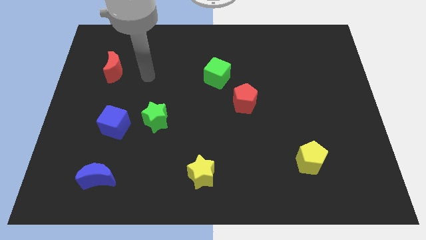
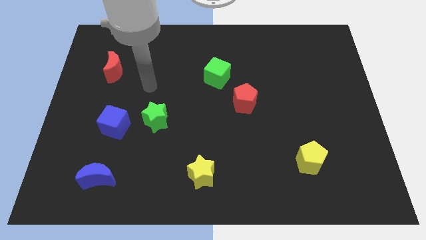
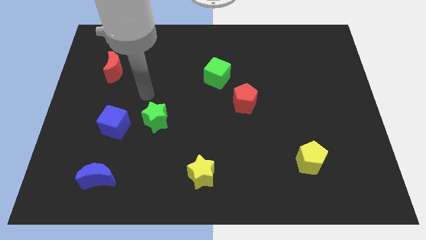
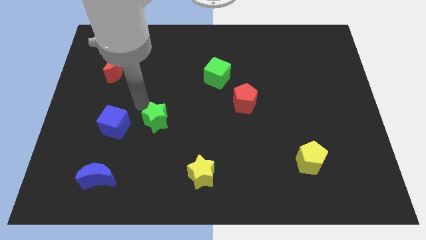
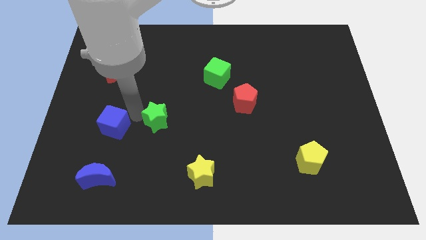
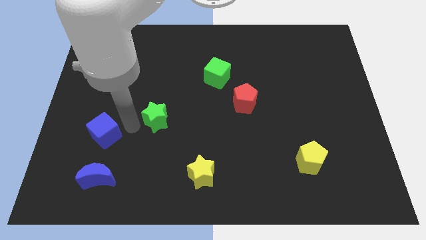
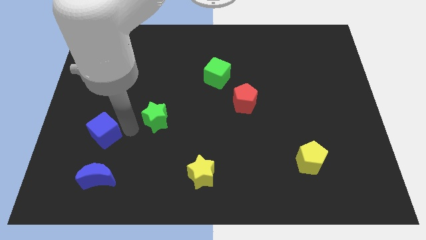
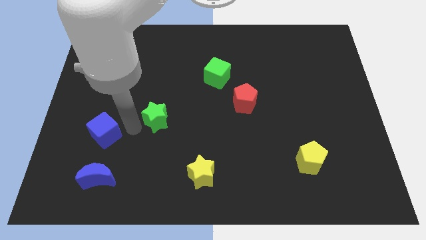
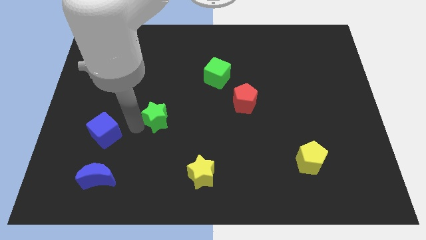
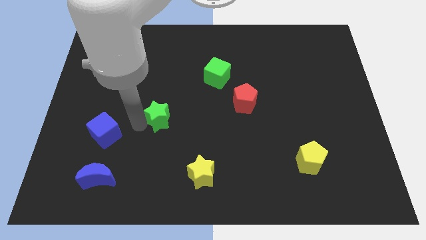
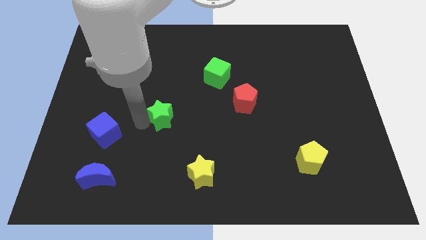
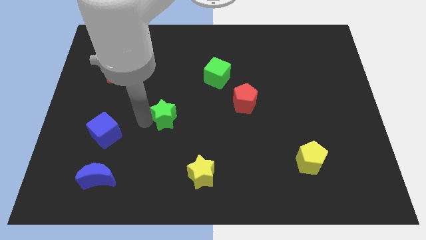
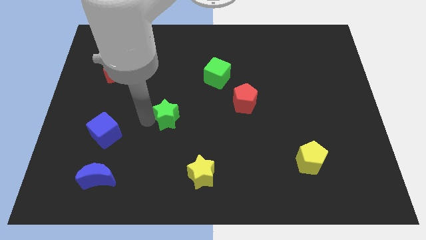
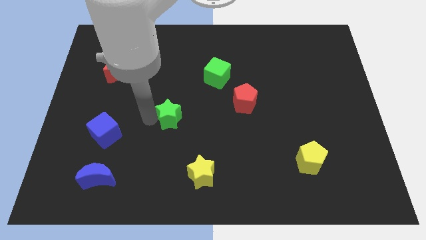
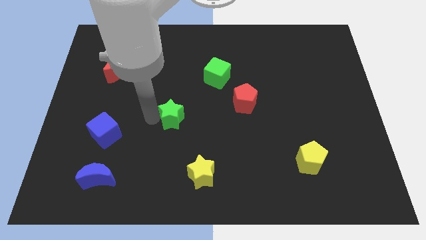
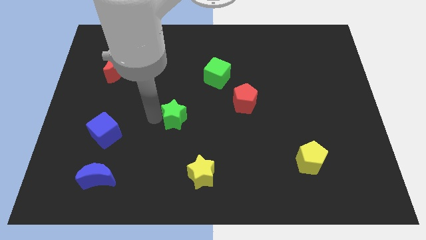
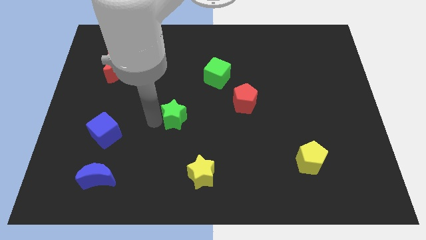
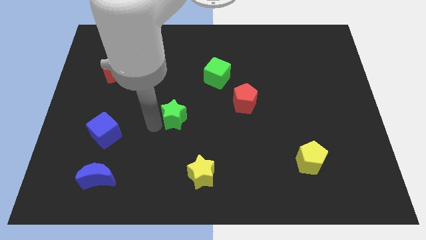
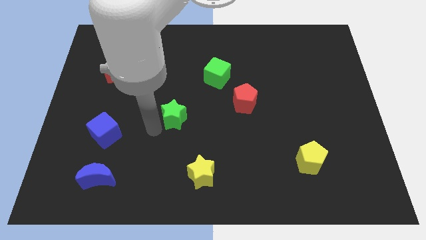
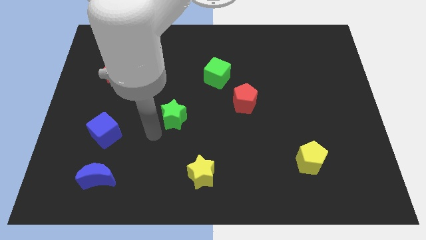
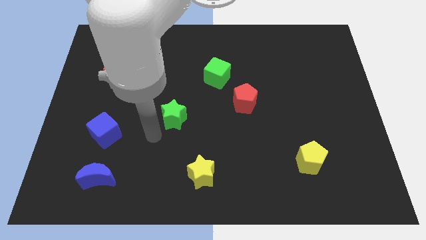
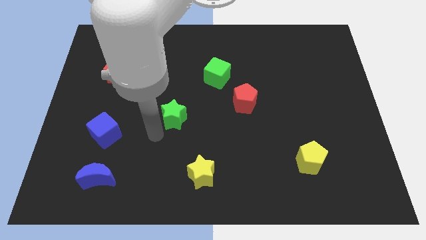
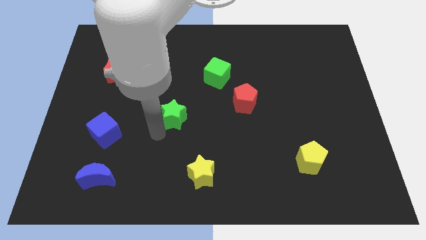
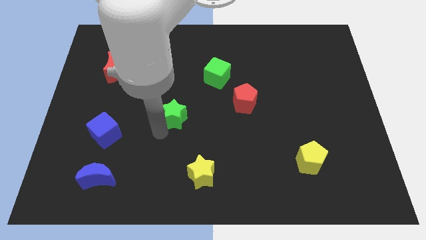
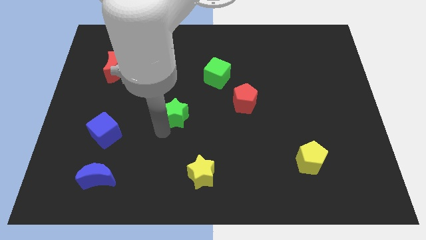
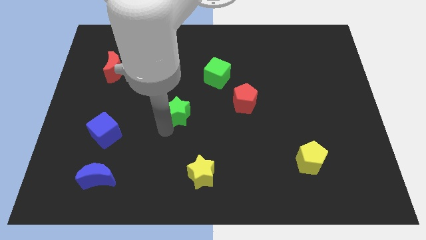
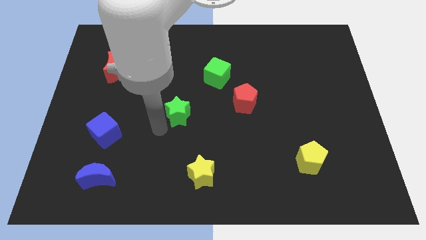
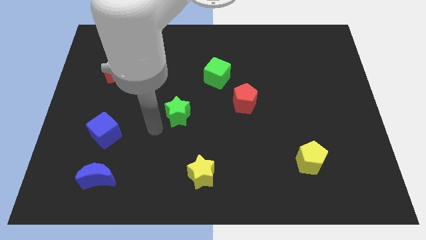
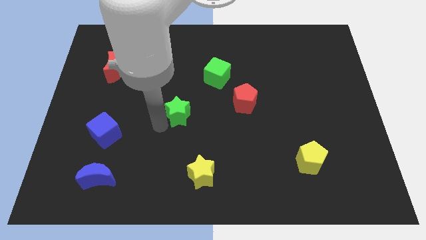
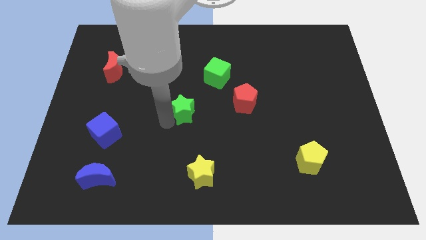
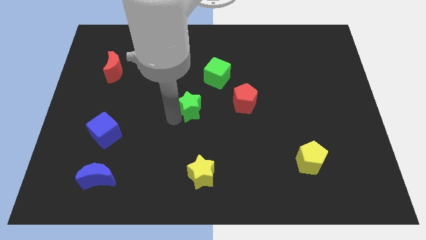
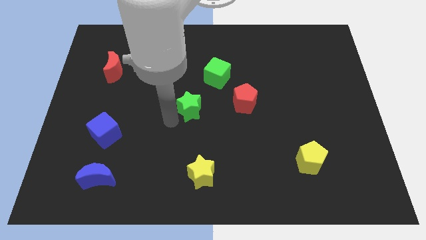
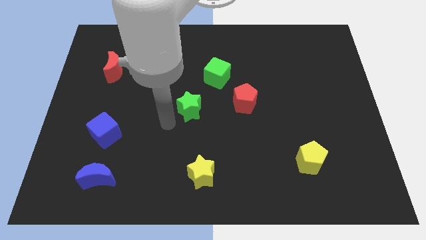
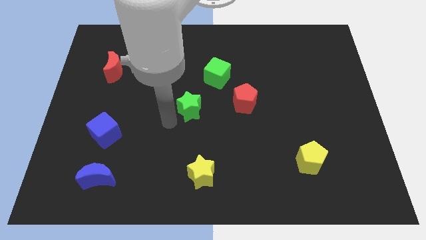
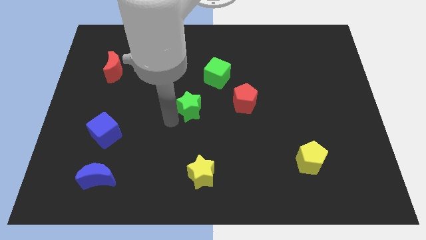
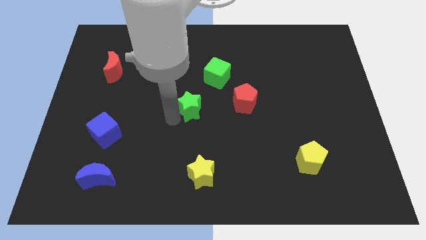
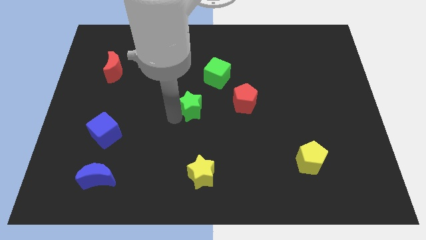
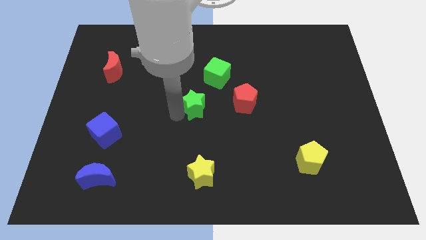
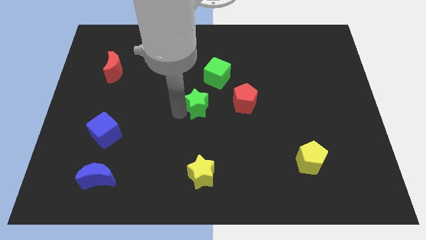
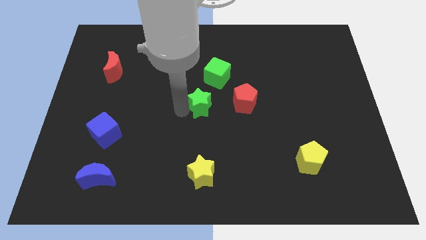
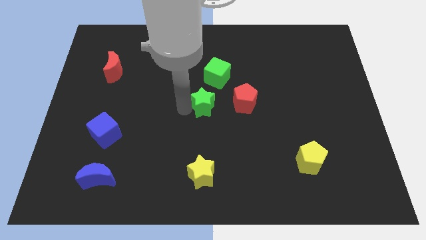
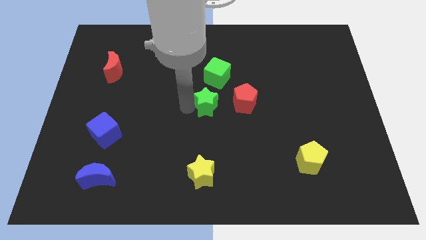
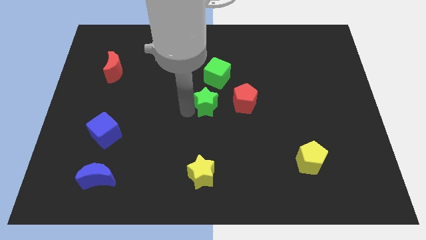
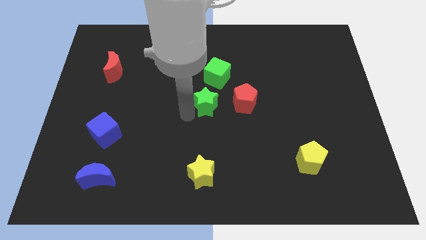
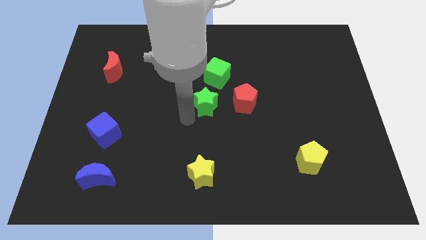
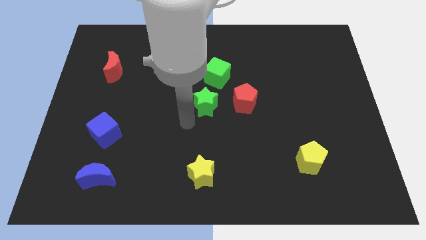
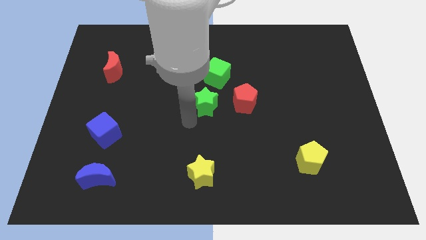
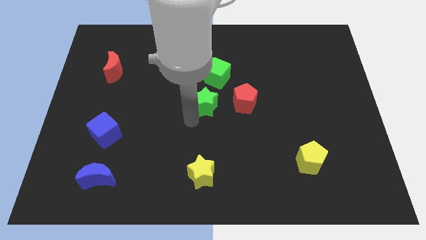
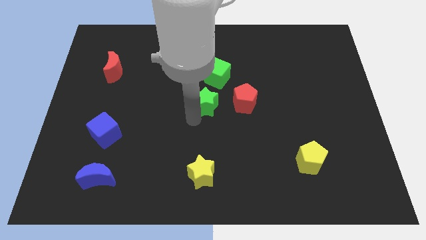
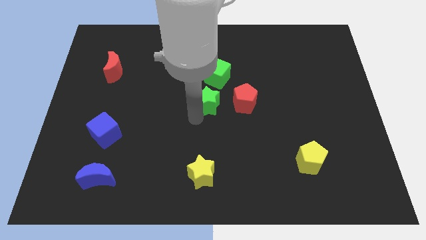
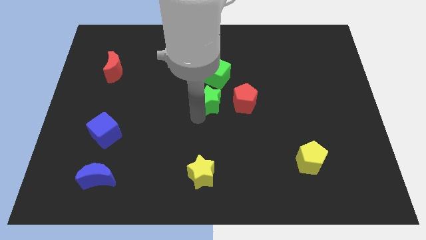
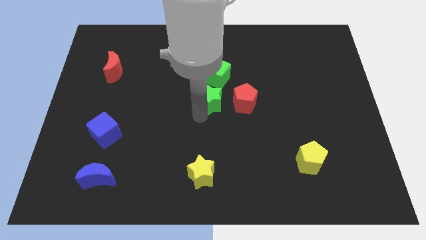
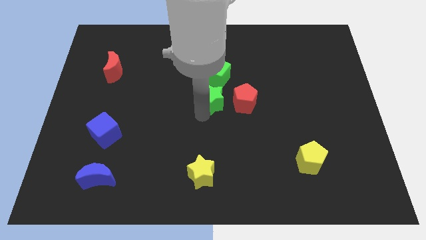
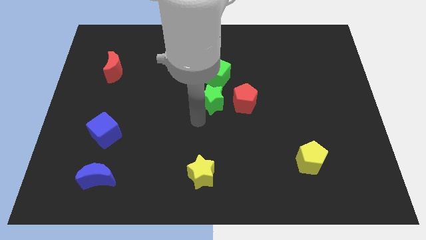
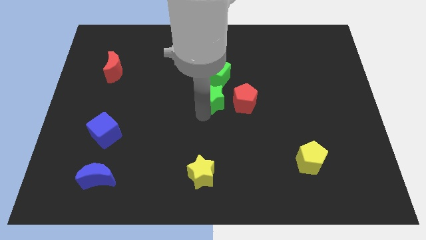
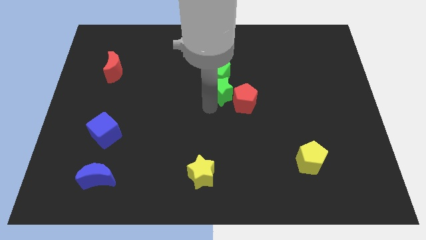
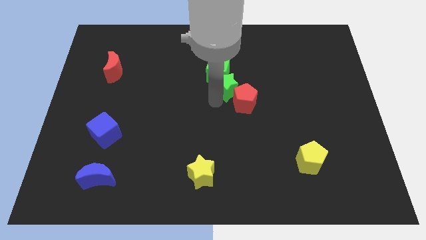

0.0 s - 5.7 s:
move the green star to the top side of the red pentagon

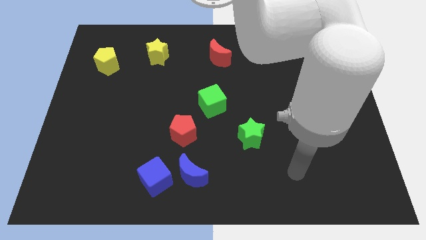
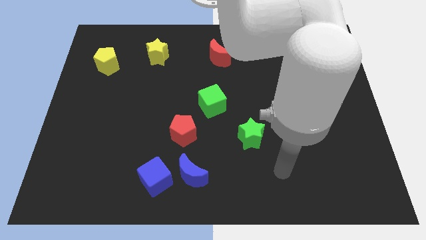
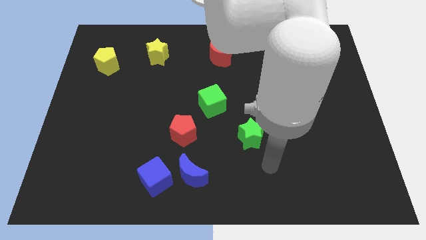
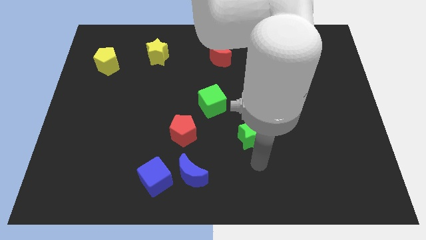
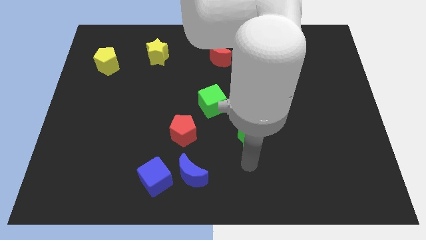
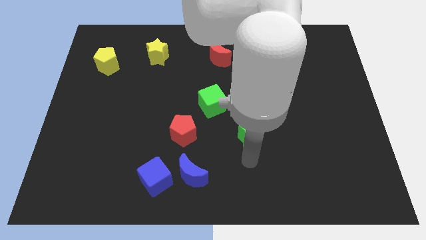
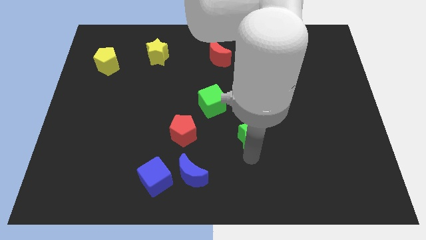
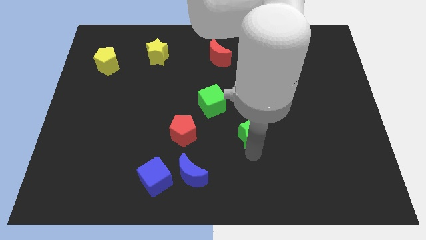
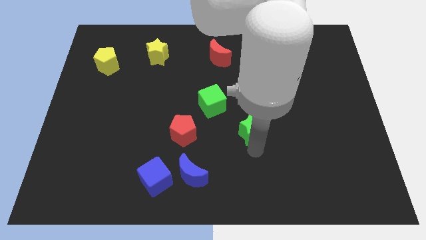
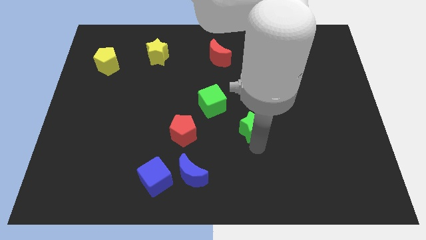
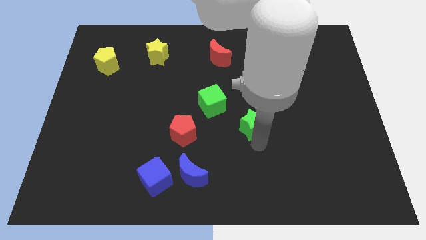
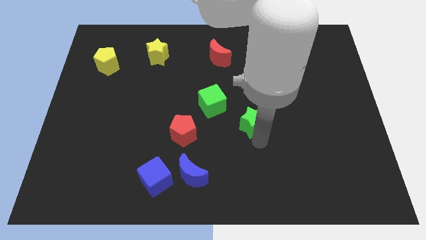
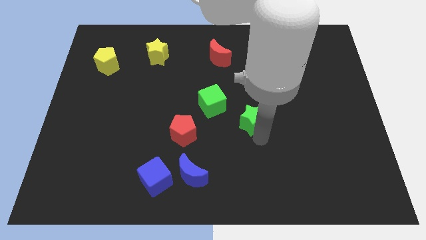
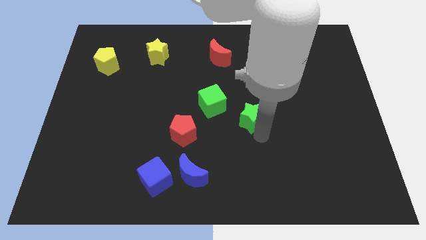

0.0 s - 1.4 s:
put the green star right of the green cube

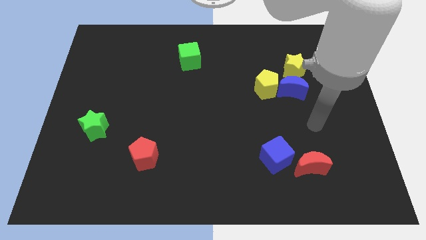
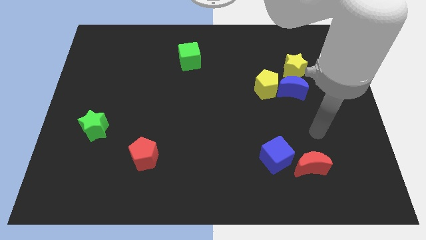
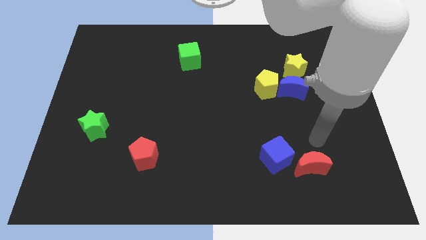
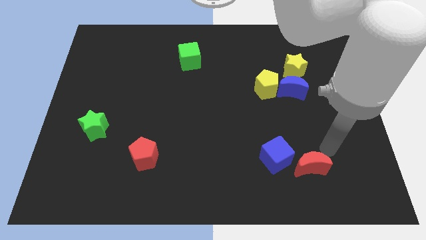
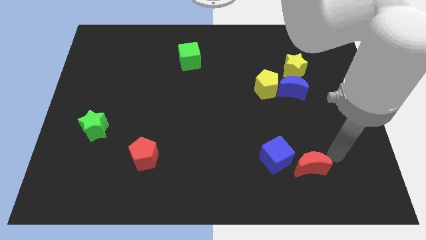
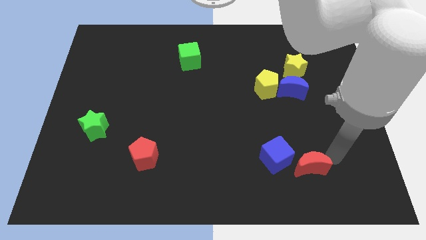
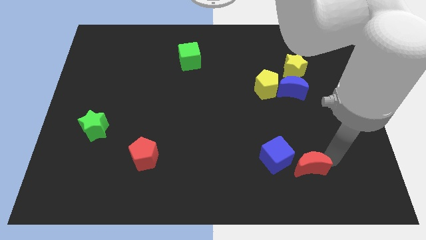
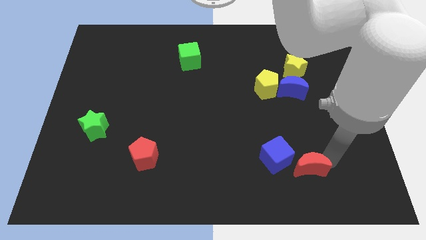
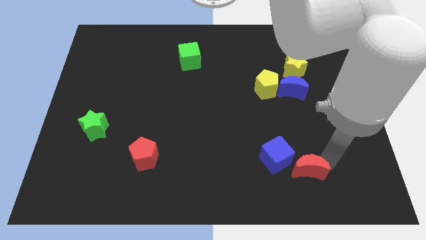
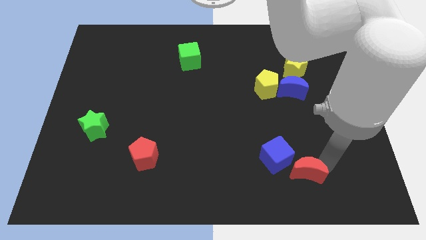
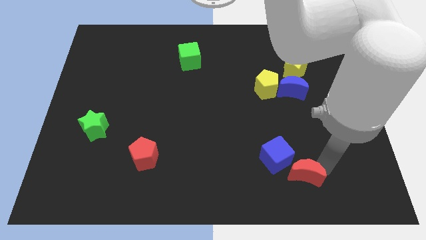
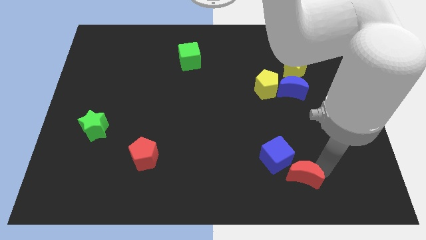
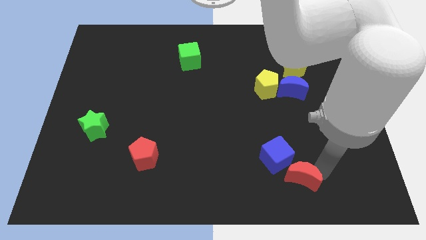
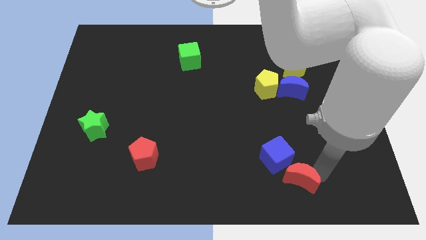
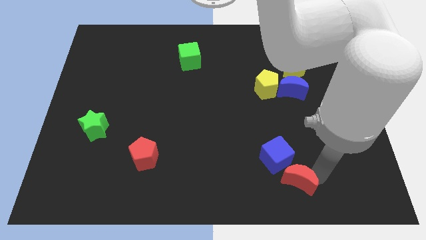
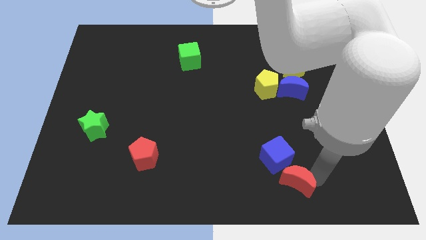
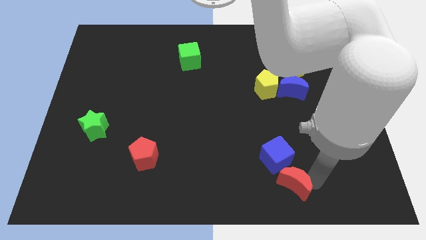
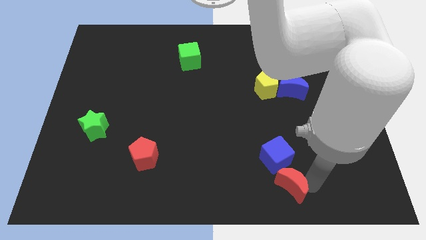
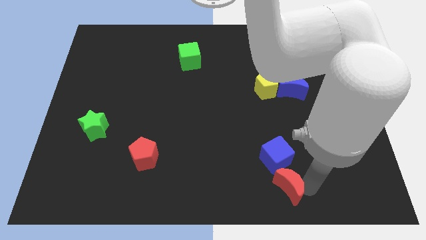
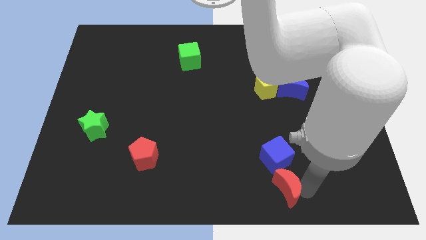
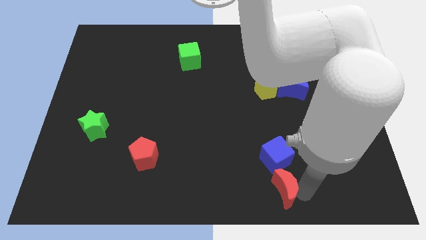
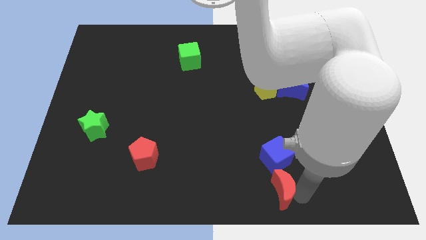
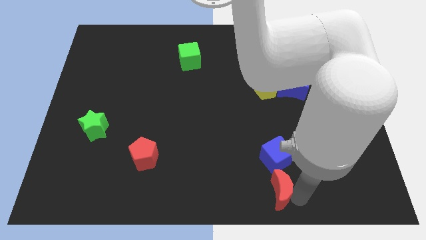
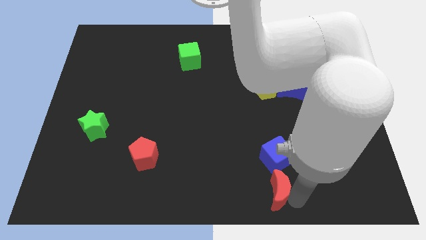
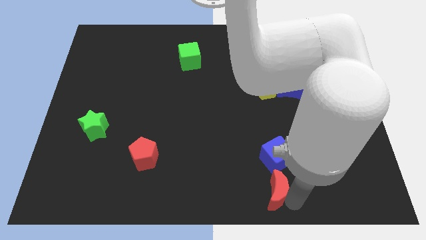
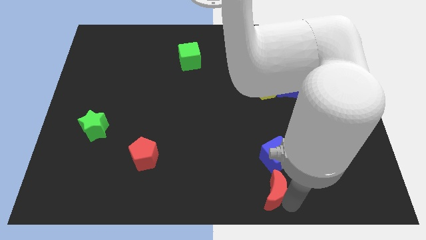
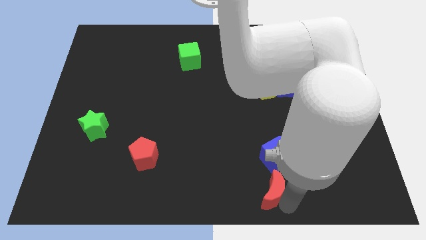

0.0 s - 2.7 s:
move the red moon diagonally down and to the left of the blue cube
